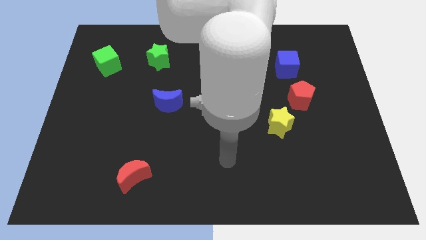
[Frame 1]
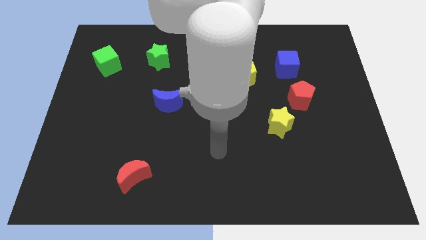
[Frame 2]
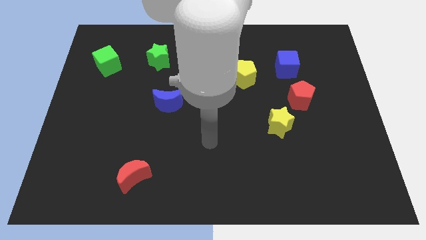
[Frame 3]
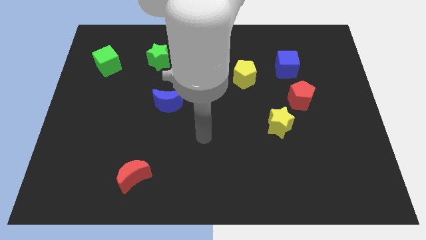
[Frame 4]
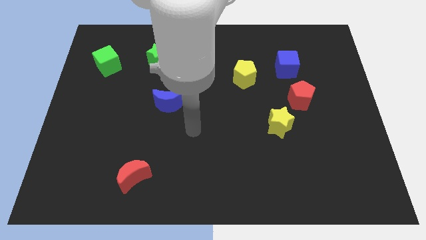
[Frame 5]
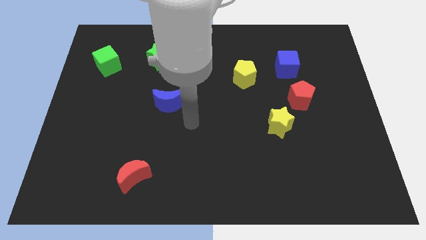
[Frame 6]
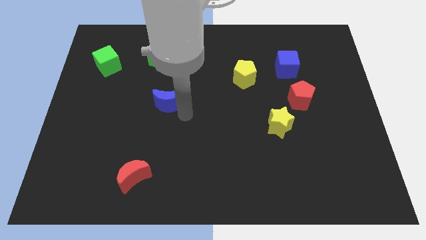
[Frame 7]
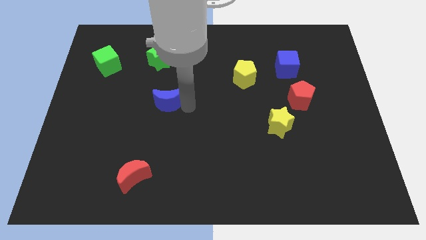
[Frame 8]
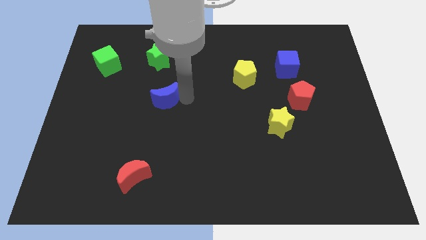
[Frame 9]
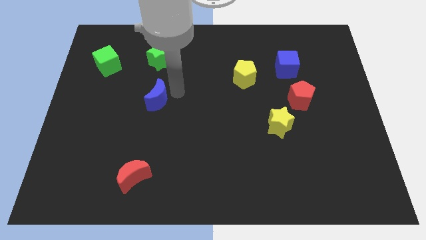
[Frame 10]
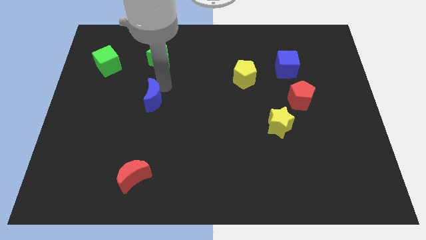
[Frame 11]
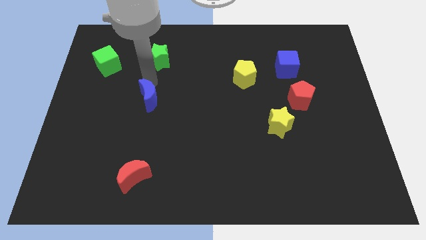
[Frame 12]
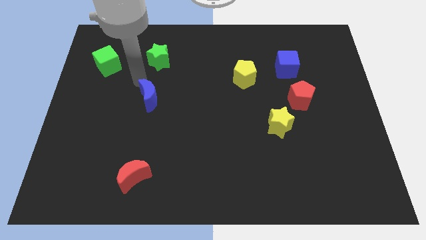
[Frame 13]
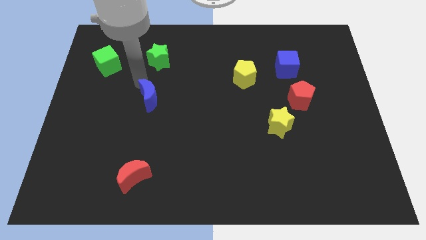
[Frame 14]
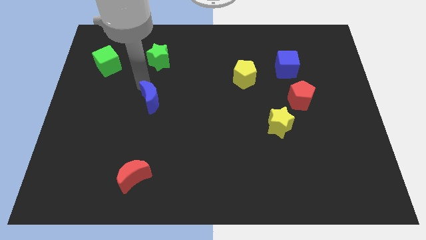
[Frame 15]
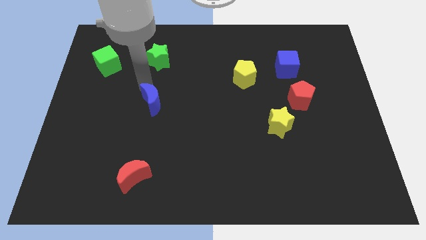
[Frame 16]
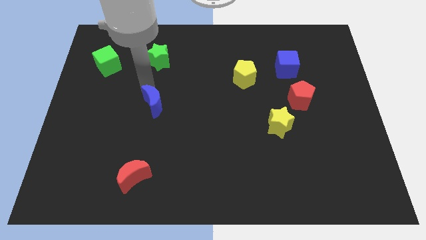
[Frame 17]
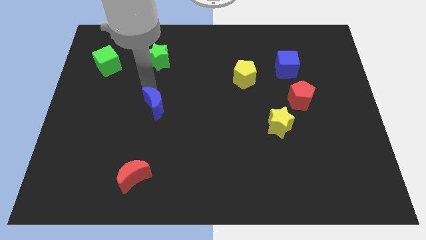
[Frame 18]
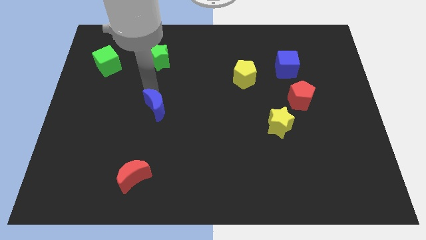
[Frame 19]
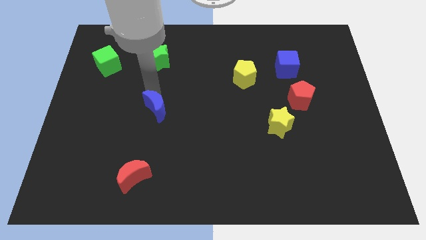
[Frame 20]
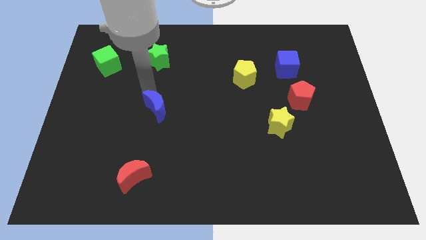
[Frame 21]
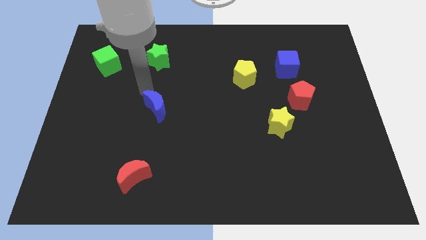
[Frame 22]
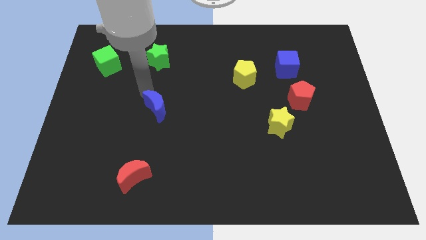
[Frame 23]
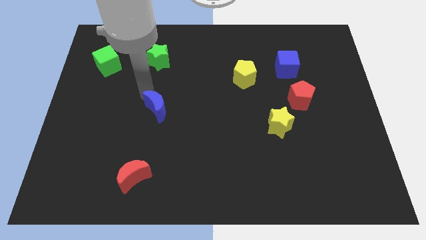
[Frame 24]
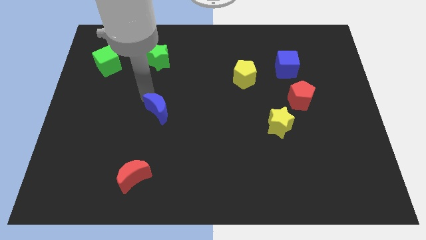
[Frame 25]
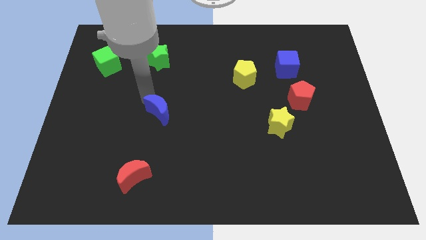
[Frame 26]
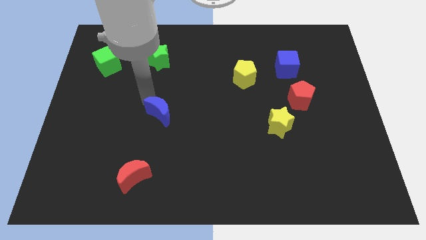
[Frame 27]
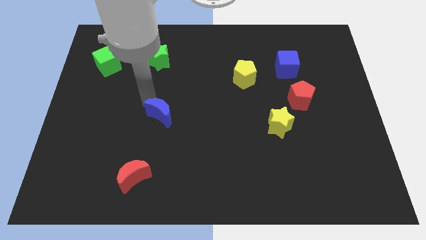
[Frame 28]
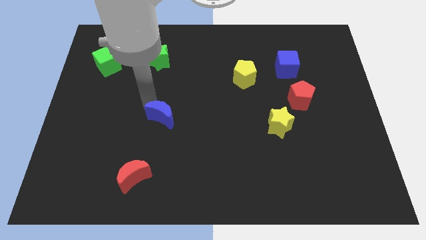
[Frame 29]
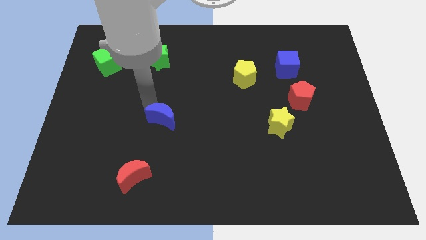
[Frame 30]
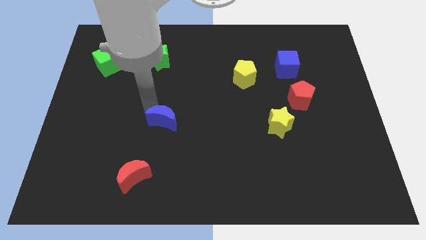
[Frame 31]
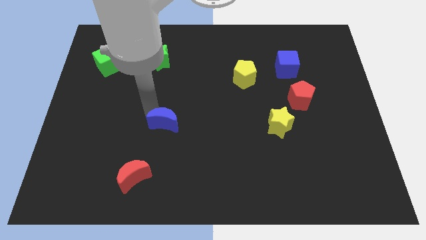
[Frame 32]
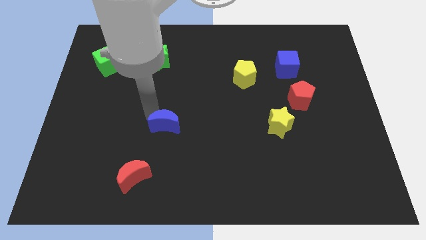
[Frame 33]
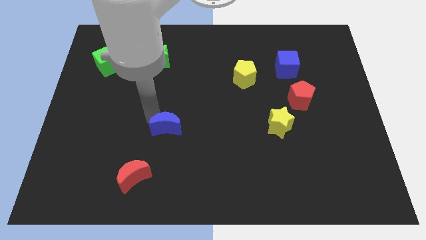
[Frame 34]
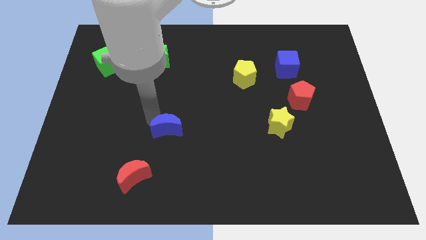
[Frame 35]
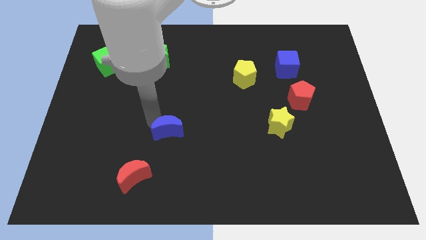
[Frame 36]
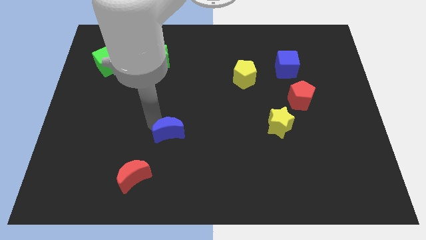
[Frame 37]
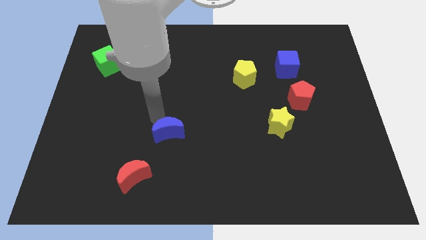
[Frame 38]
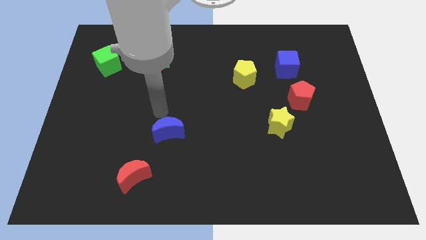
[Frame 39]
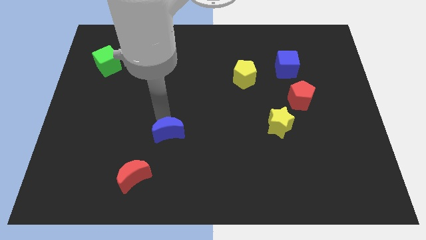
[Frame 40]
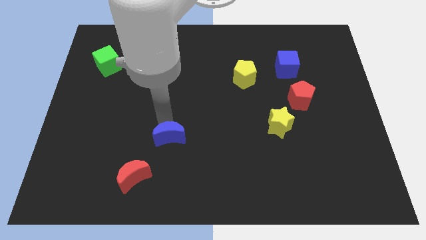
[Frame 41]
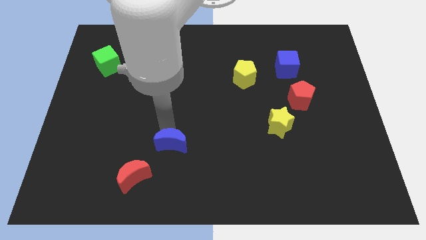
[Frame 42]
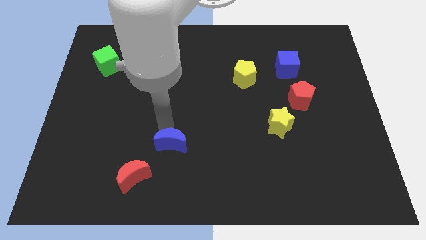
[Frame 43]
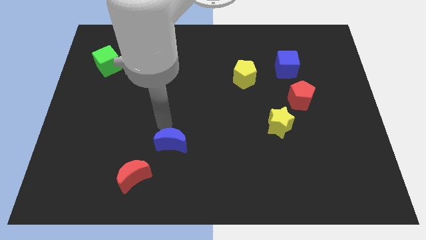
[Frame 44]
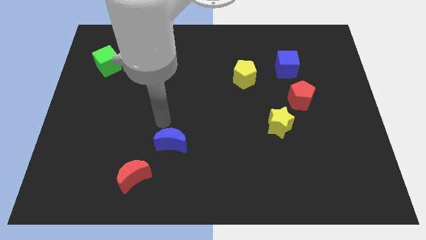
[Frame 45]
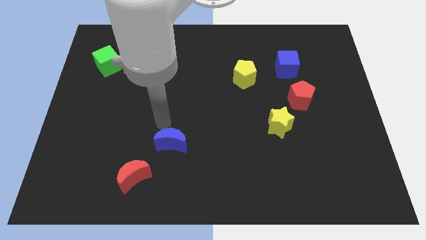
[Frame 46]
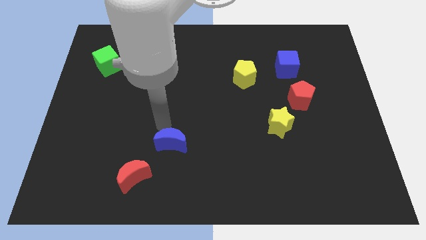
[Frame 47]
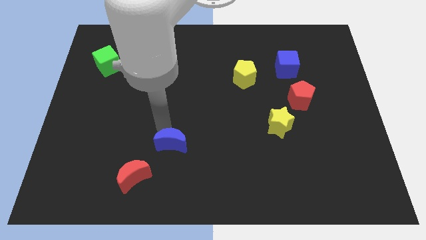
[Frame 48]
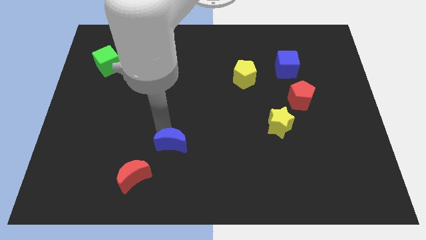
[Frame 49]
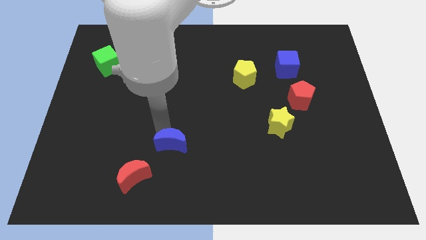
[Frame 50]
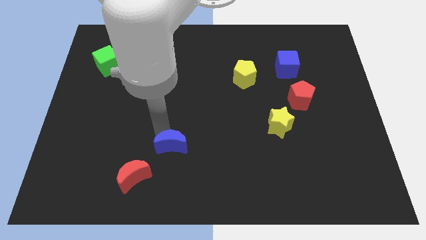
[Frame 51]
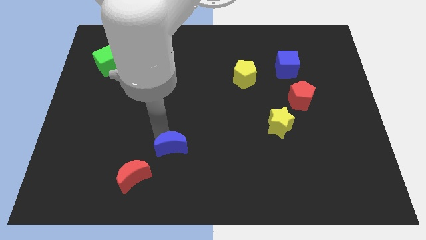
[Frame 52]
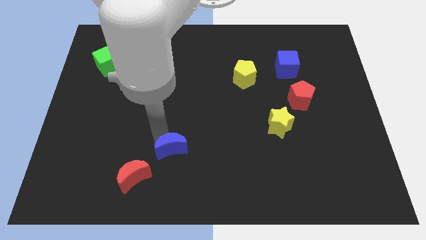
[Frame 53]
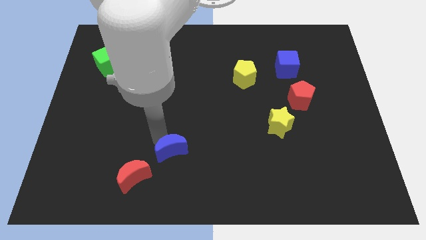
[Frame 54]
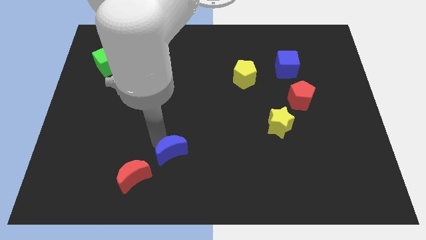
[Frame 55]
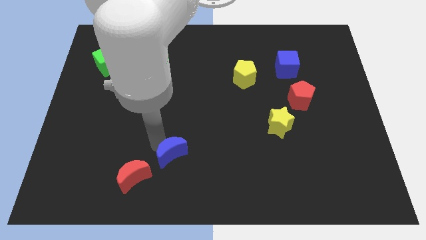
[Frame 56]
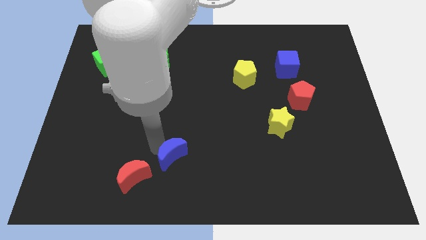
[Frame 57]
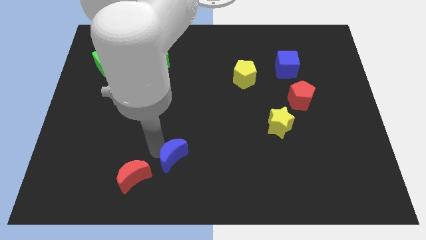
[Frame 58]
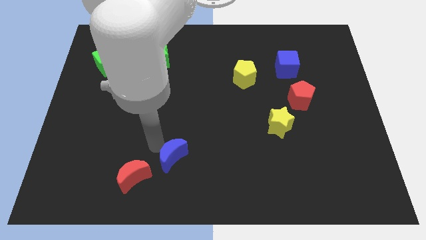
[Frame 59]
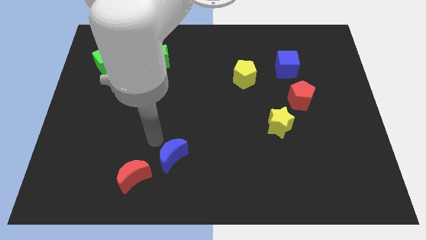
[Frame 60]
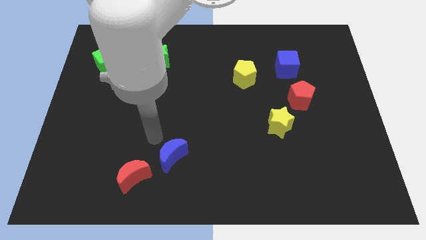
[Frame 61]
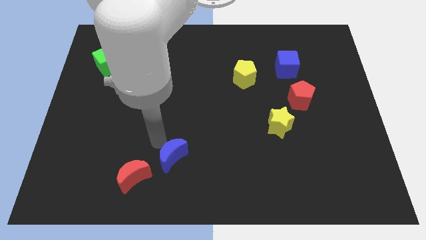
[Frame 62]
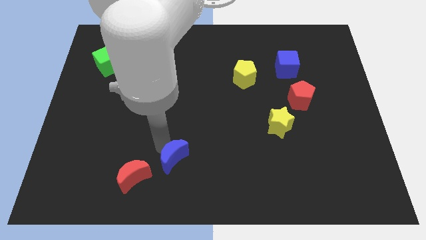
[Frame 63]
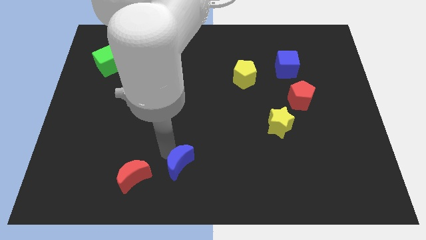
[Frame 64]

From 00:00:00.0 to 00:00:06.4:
push the blue moon to the bottom

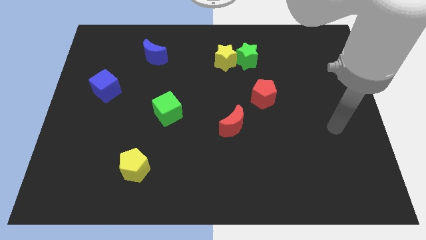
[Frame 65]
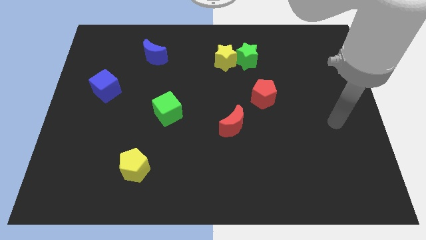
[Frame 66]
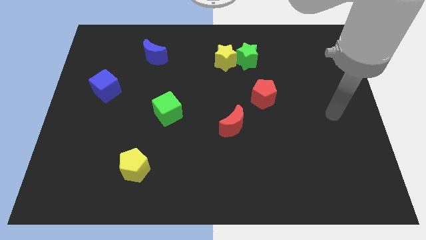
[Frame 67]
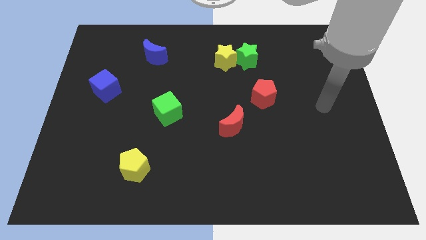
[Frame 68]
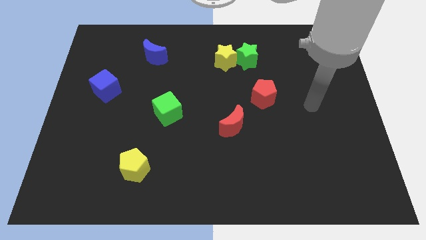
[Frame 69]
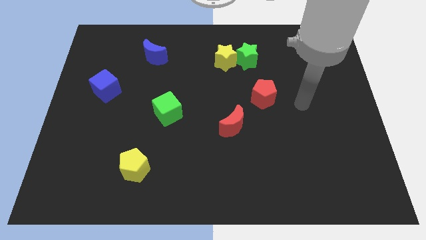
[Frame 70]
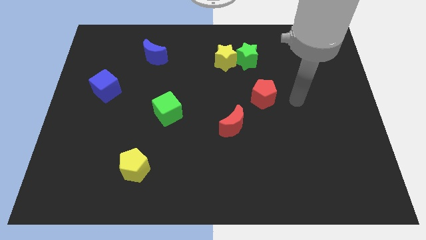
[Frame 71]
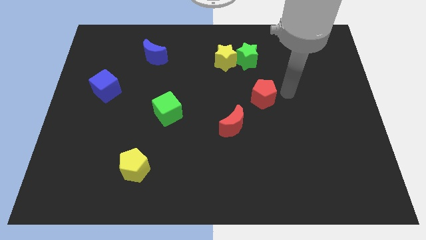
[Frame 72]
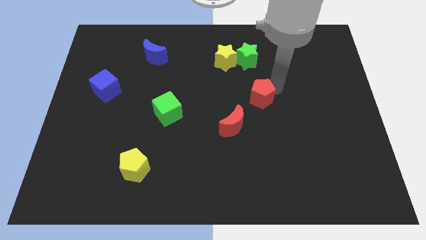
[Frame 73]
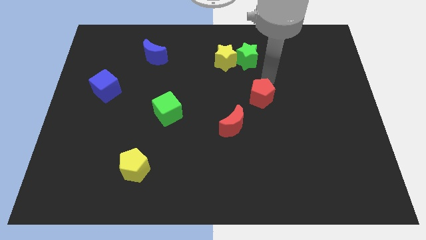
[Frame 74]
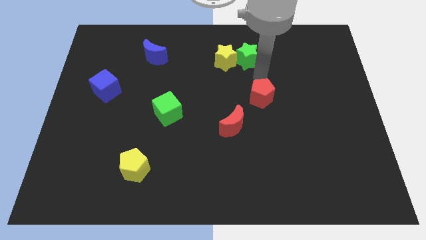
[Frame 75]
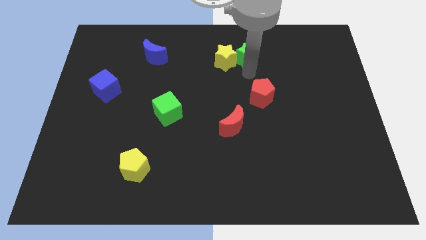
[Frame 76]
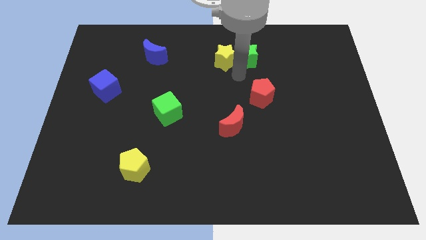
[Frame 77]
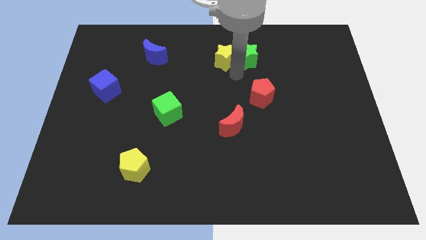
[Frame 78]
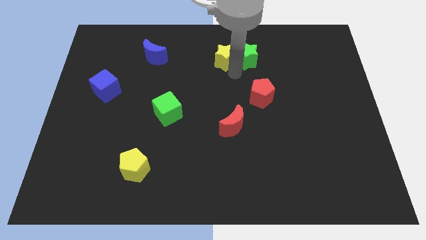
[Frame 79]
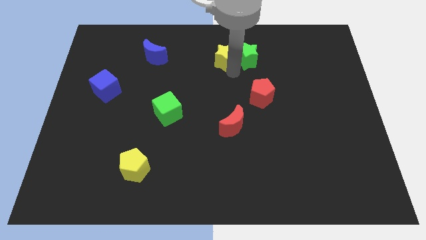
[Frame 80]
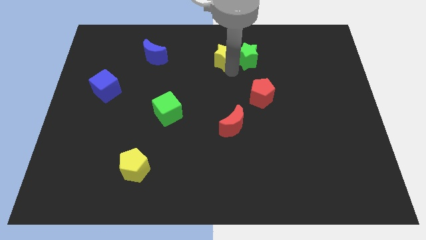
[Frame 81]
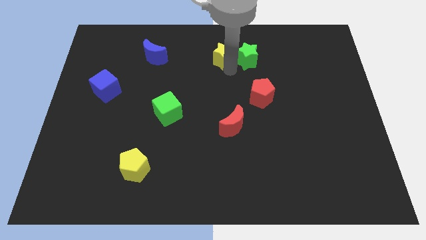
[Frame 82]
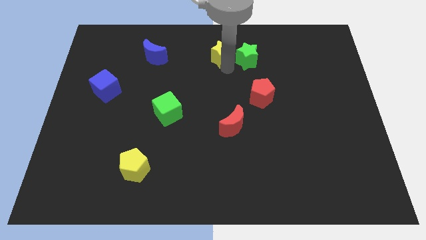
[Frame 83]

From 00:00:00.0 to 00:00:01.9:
move the yellow star to the top
